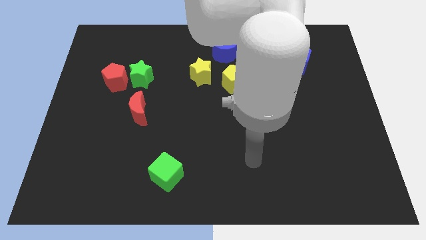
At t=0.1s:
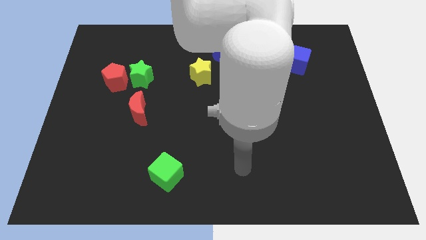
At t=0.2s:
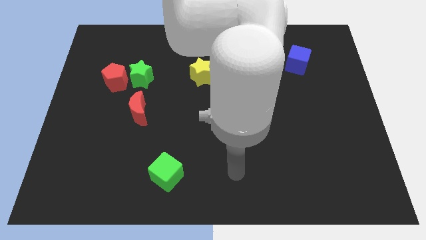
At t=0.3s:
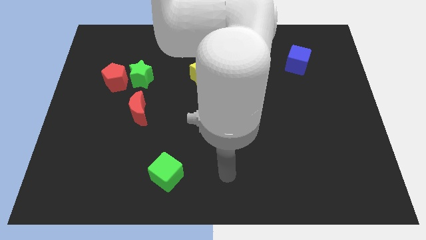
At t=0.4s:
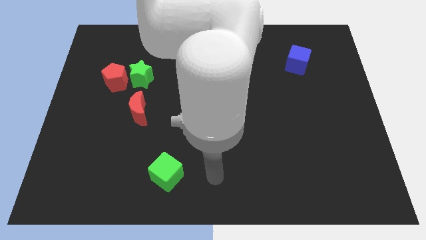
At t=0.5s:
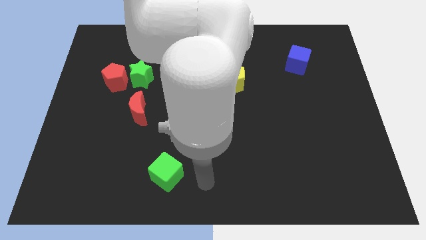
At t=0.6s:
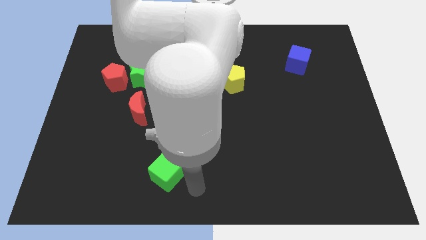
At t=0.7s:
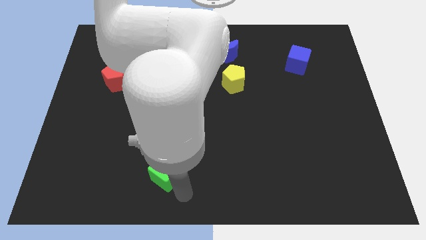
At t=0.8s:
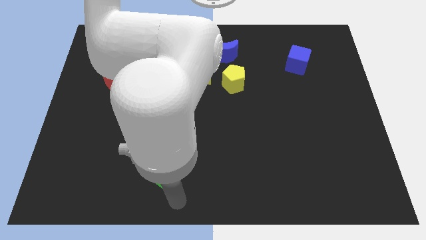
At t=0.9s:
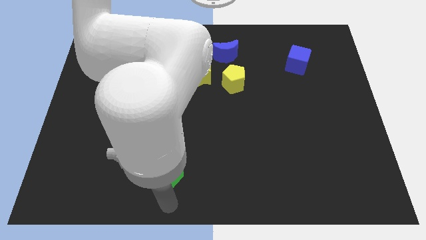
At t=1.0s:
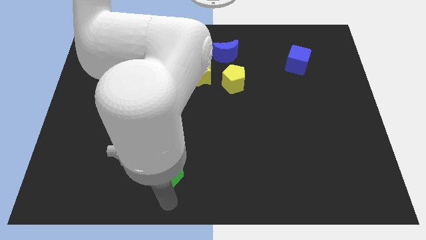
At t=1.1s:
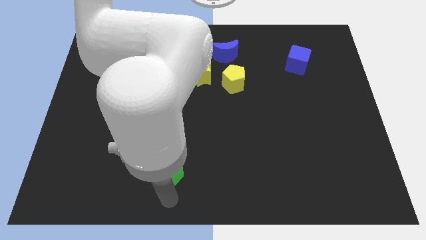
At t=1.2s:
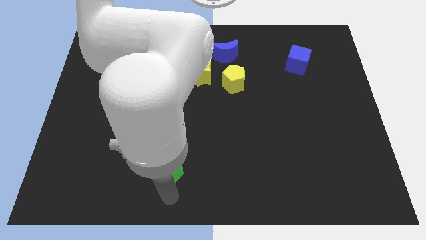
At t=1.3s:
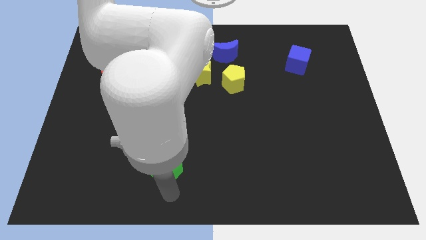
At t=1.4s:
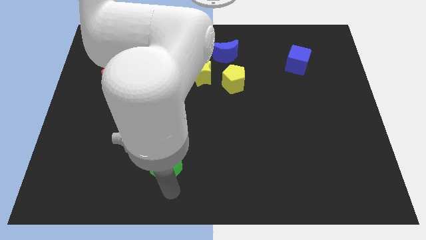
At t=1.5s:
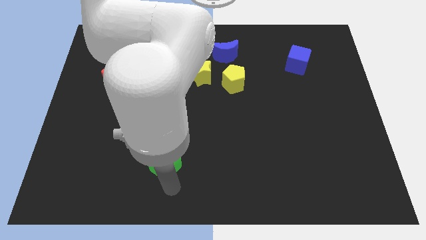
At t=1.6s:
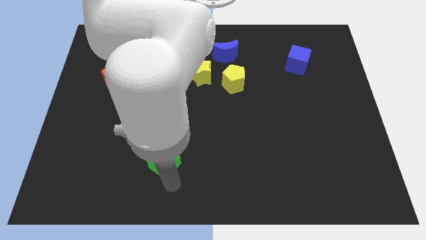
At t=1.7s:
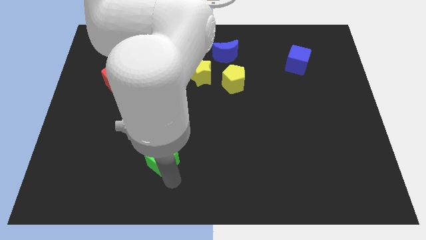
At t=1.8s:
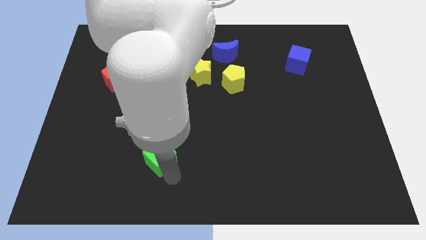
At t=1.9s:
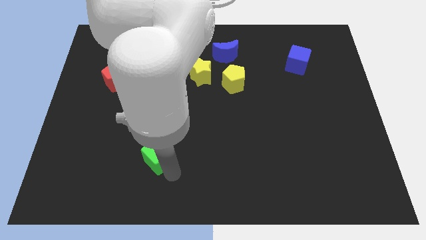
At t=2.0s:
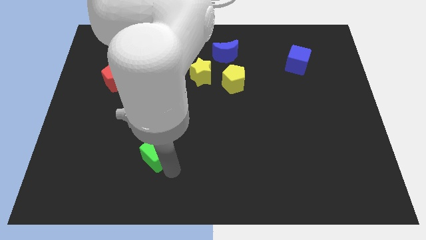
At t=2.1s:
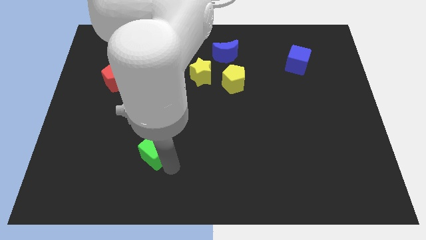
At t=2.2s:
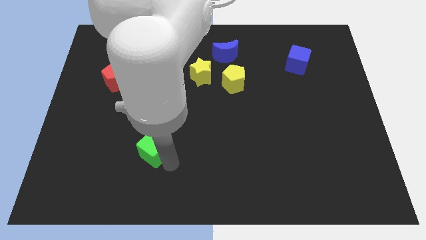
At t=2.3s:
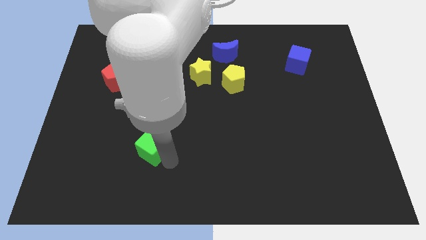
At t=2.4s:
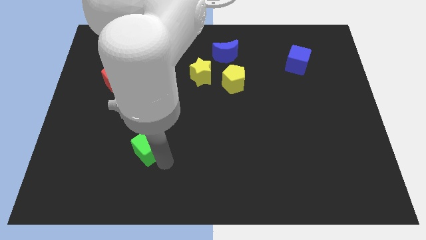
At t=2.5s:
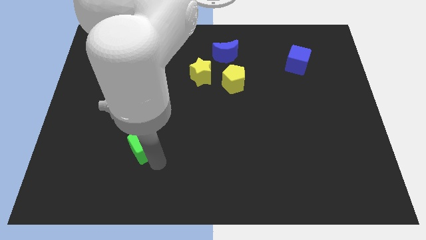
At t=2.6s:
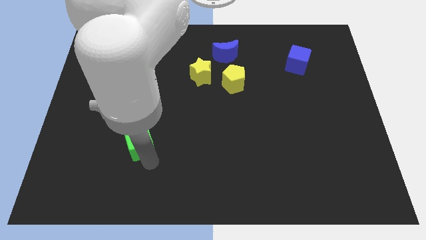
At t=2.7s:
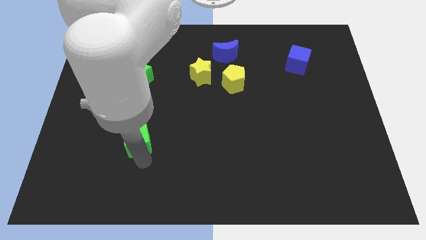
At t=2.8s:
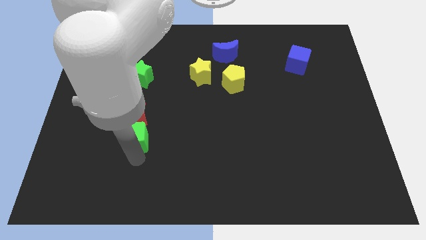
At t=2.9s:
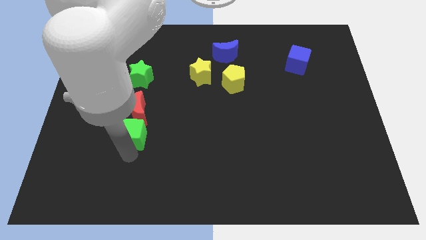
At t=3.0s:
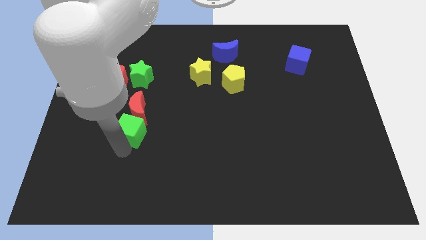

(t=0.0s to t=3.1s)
slightly push the green cube up

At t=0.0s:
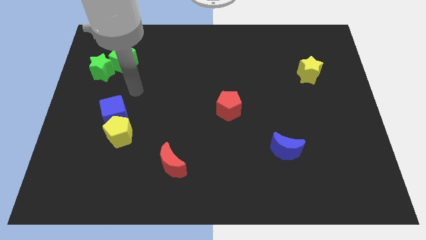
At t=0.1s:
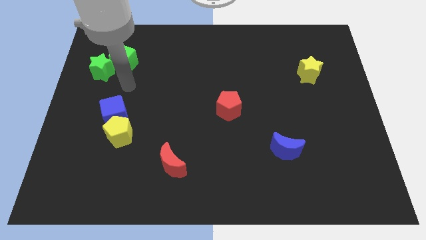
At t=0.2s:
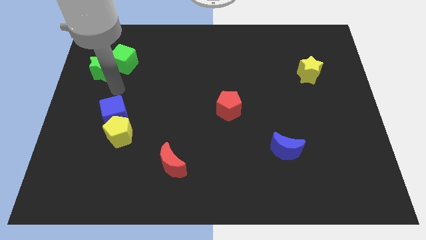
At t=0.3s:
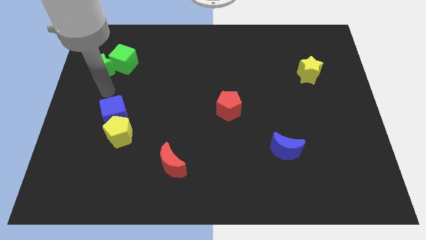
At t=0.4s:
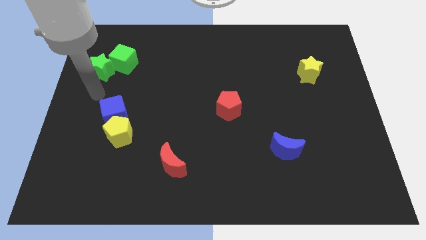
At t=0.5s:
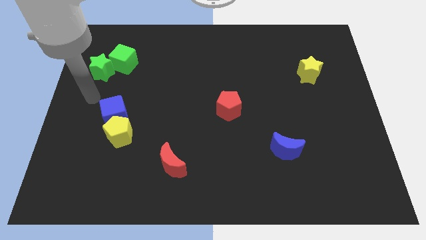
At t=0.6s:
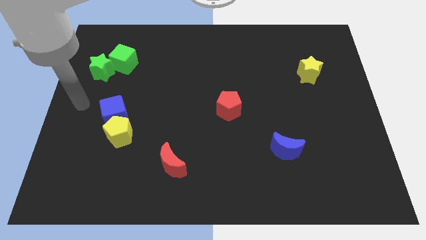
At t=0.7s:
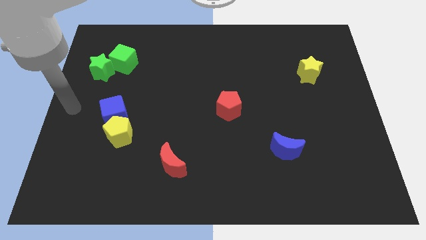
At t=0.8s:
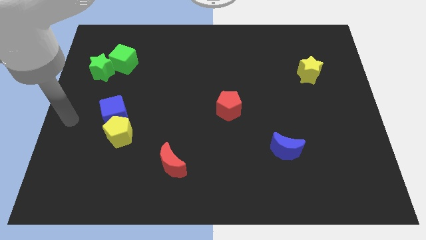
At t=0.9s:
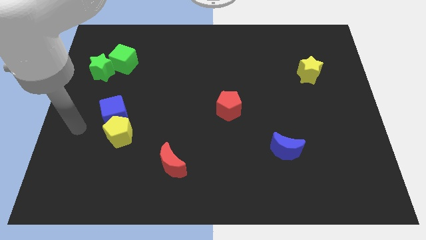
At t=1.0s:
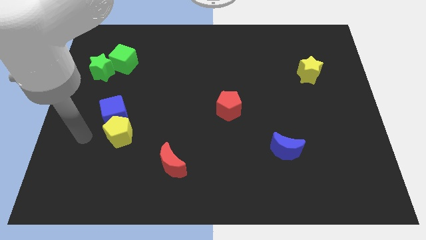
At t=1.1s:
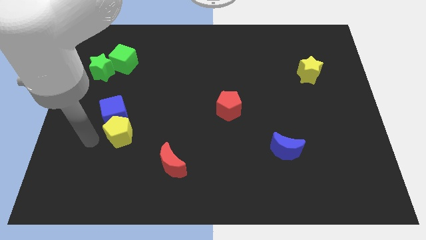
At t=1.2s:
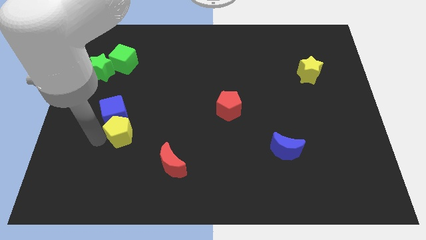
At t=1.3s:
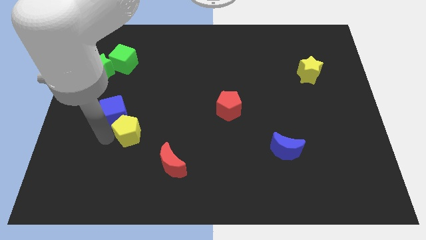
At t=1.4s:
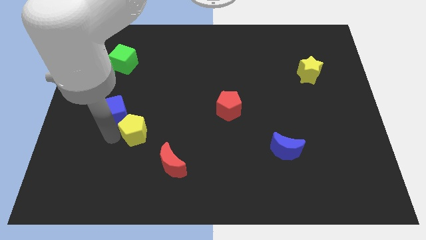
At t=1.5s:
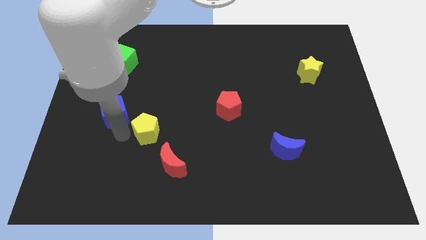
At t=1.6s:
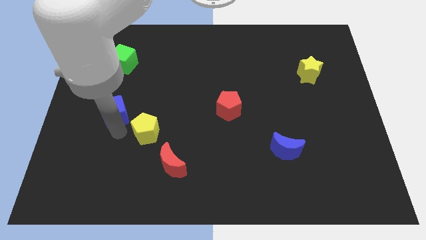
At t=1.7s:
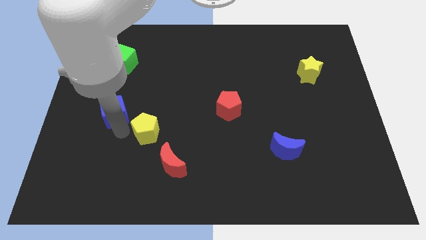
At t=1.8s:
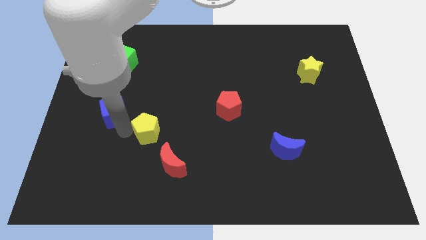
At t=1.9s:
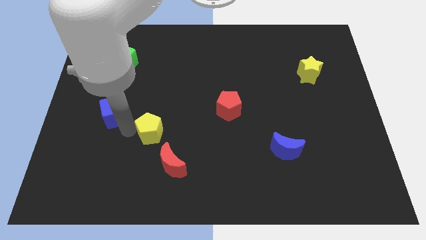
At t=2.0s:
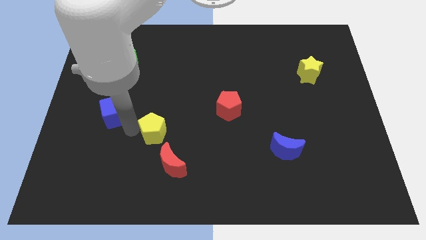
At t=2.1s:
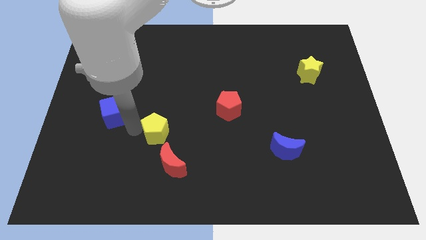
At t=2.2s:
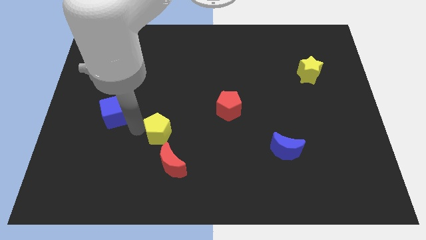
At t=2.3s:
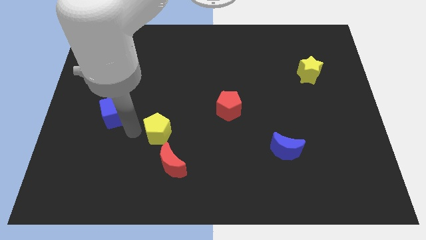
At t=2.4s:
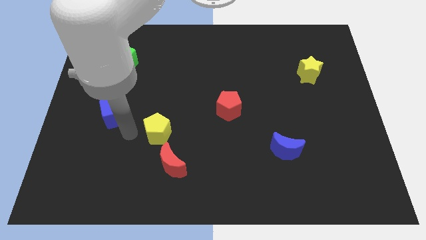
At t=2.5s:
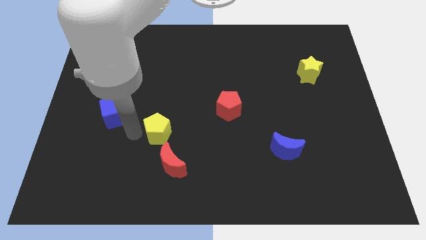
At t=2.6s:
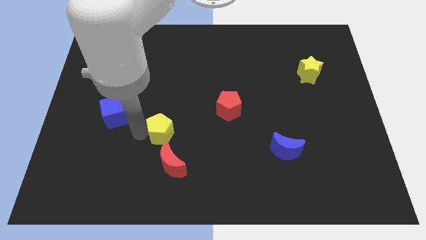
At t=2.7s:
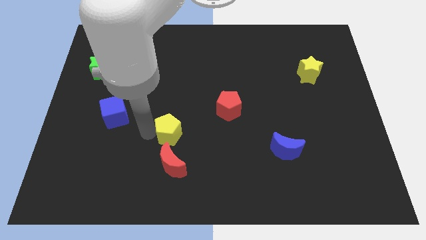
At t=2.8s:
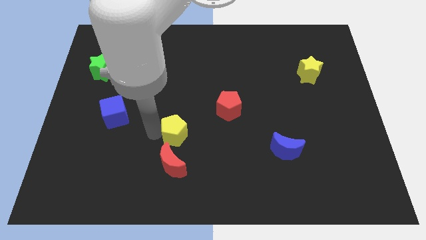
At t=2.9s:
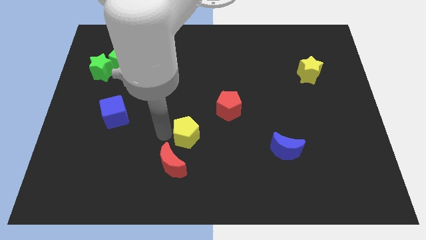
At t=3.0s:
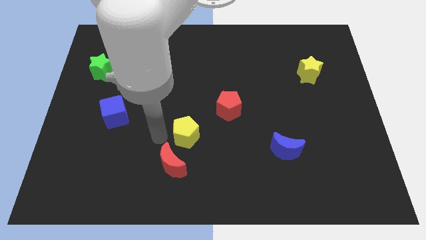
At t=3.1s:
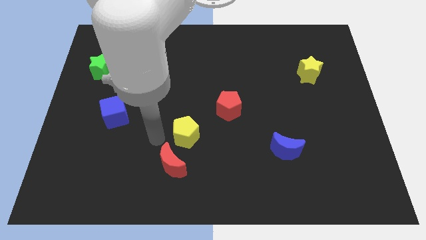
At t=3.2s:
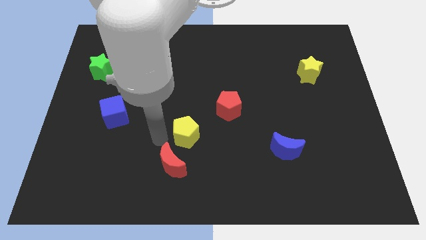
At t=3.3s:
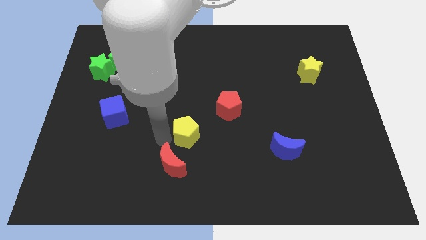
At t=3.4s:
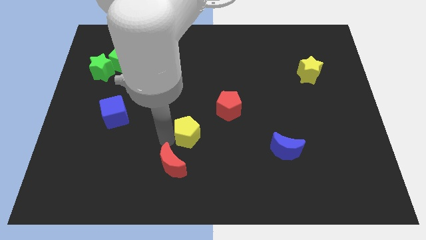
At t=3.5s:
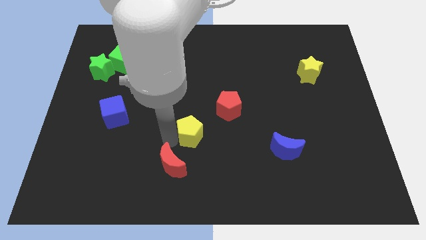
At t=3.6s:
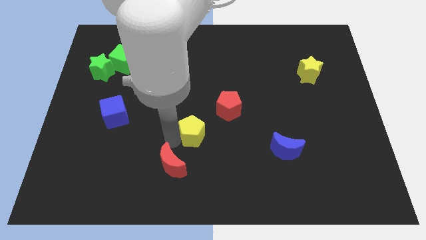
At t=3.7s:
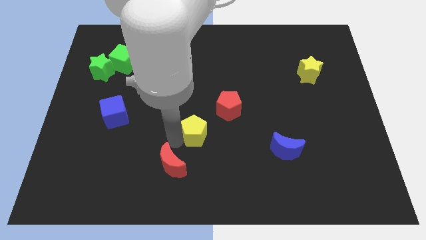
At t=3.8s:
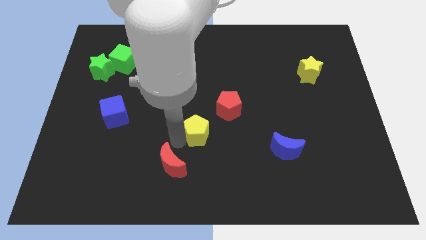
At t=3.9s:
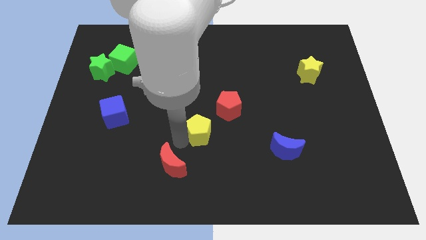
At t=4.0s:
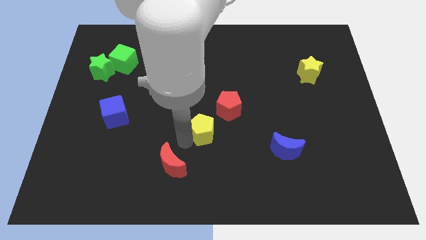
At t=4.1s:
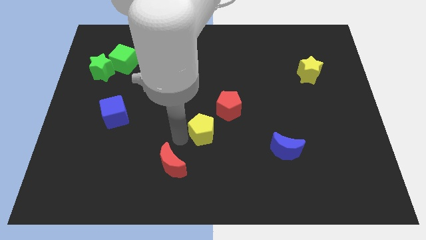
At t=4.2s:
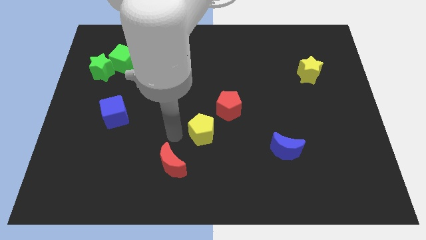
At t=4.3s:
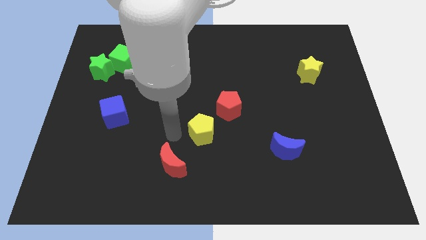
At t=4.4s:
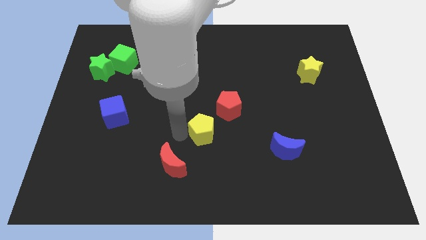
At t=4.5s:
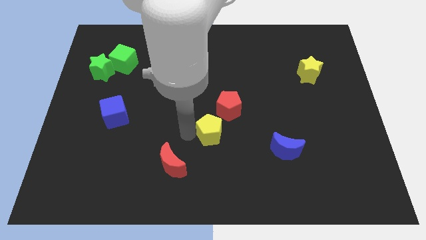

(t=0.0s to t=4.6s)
move the yellow pentagon right

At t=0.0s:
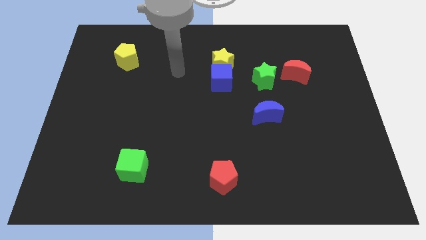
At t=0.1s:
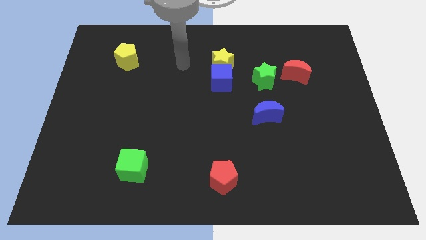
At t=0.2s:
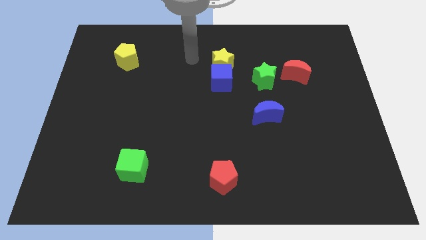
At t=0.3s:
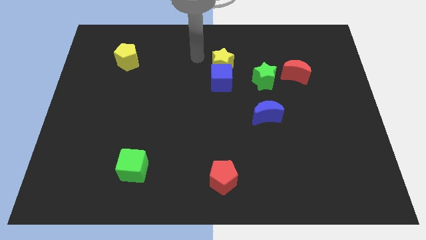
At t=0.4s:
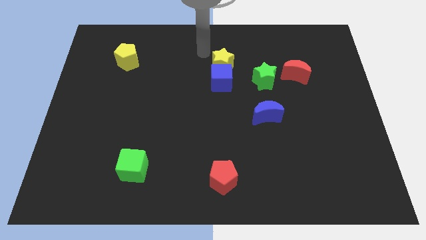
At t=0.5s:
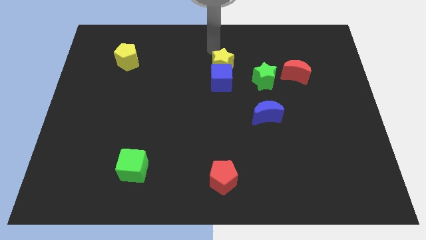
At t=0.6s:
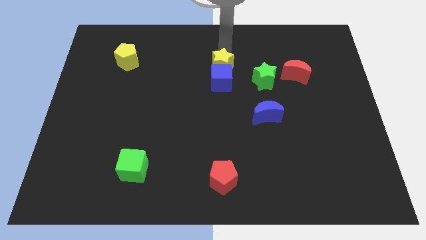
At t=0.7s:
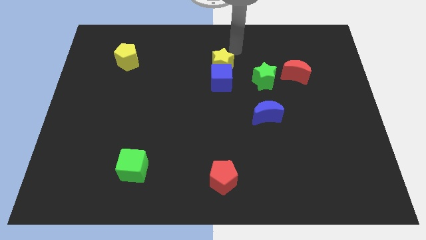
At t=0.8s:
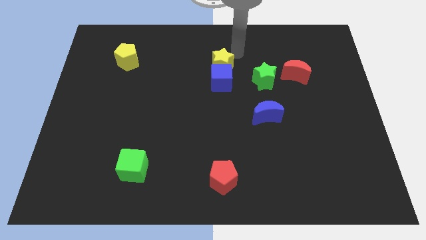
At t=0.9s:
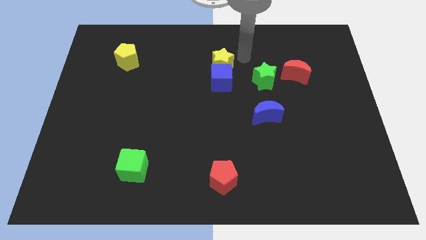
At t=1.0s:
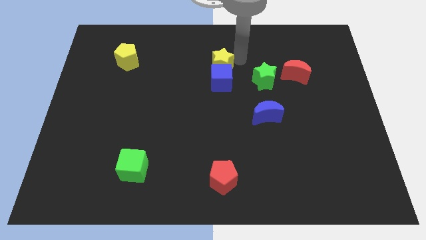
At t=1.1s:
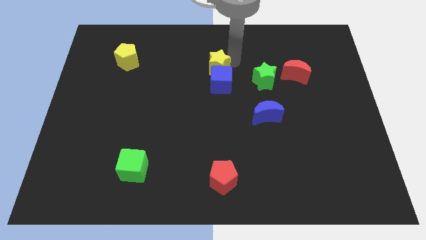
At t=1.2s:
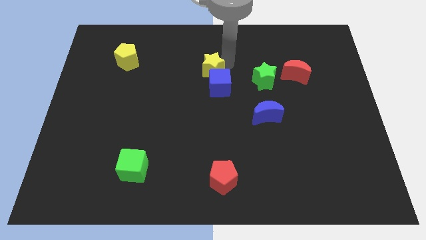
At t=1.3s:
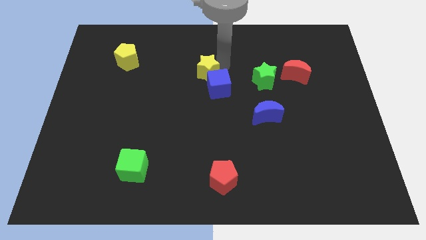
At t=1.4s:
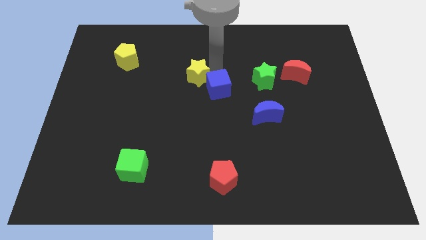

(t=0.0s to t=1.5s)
move the yellow star somewhat down and then left
